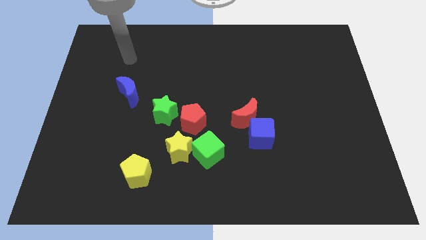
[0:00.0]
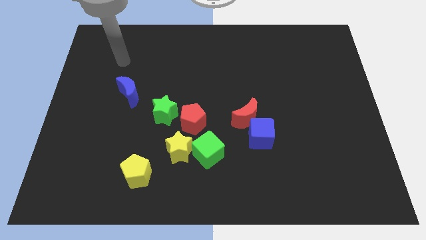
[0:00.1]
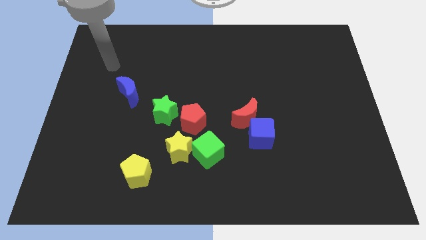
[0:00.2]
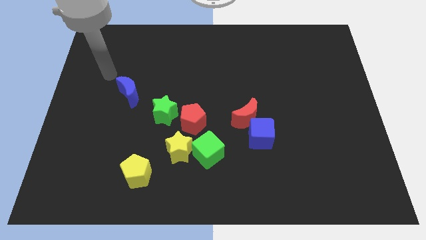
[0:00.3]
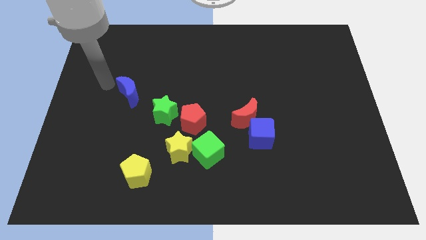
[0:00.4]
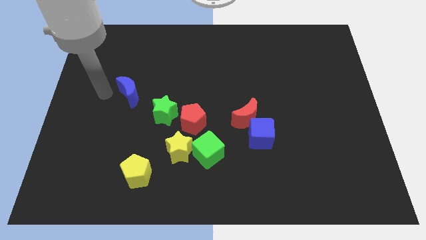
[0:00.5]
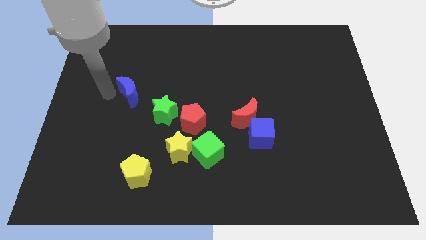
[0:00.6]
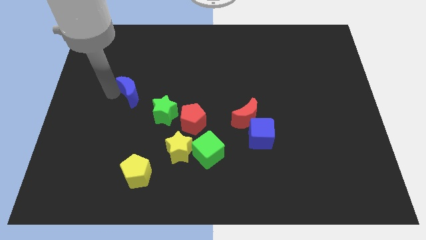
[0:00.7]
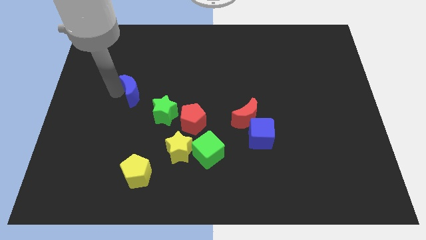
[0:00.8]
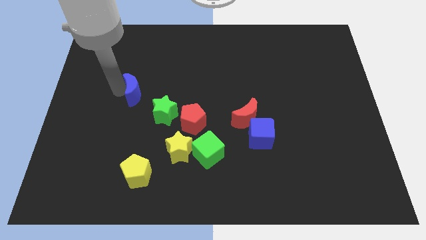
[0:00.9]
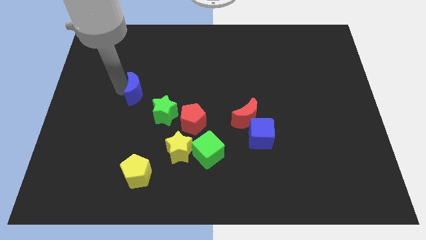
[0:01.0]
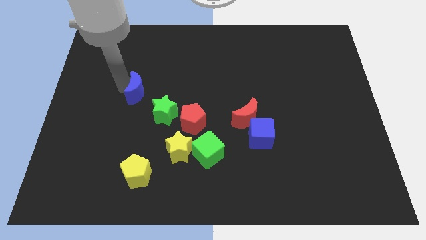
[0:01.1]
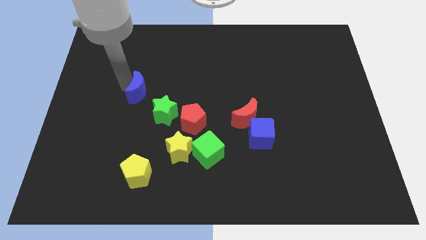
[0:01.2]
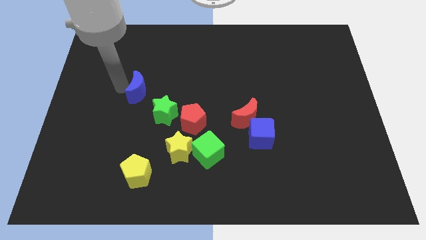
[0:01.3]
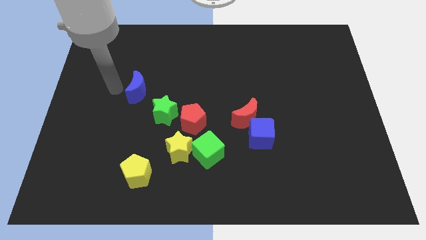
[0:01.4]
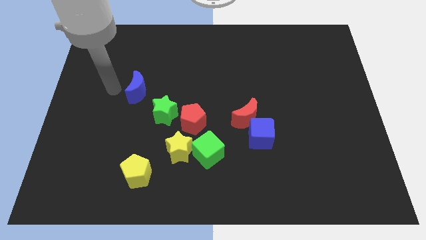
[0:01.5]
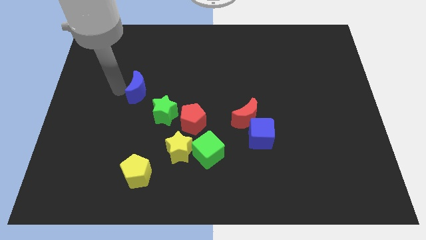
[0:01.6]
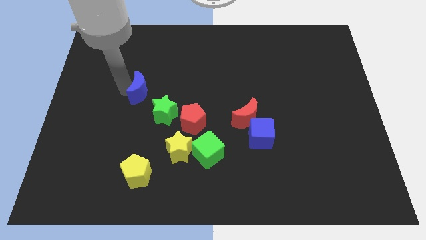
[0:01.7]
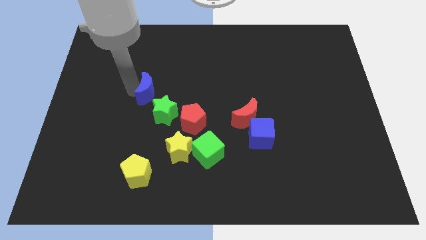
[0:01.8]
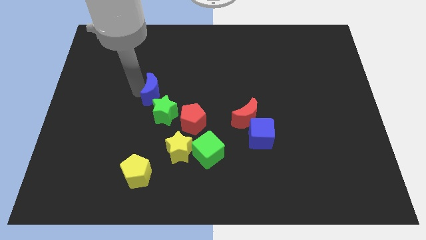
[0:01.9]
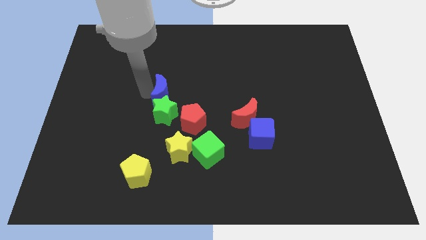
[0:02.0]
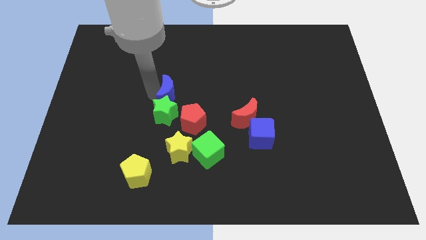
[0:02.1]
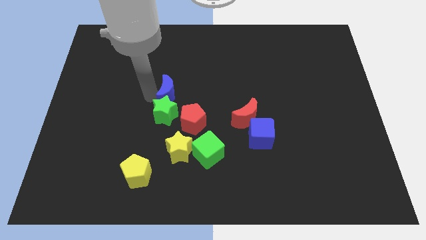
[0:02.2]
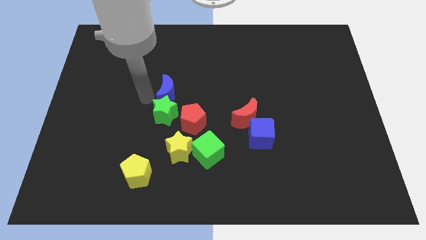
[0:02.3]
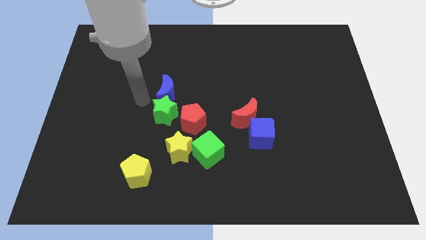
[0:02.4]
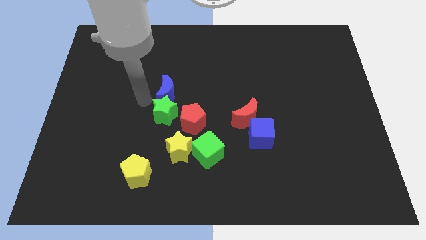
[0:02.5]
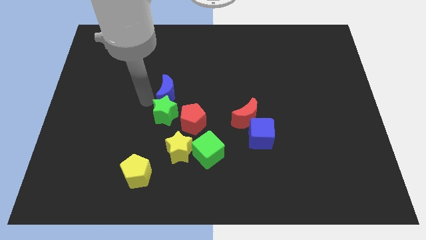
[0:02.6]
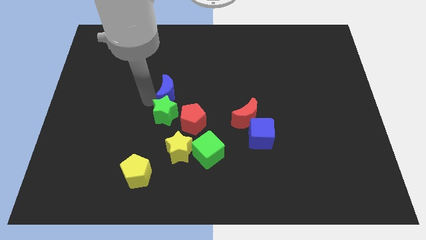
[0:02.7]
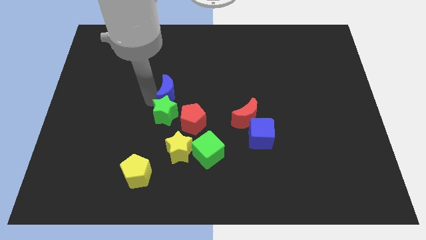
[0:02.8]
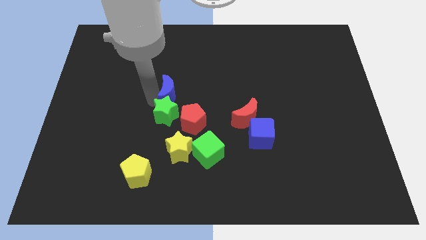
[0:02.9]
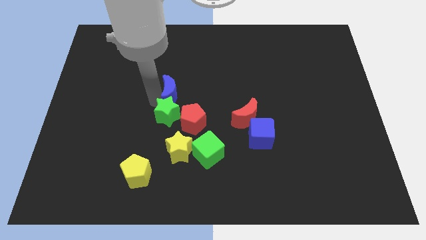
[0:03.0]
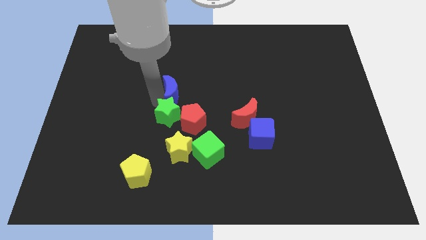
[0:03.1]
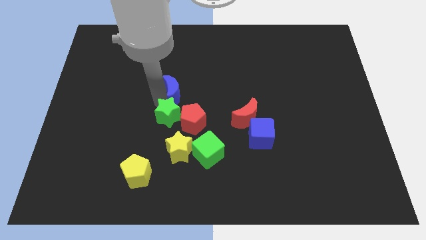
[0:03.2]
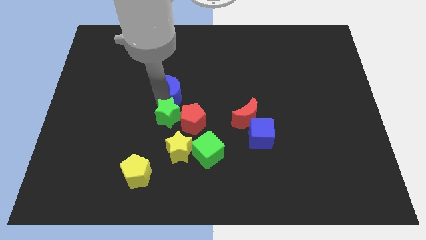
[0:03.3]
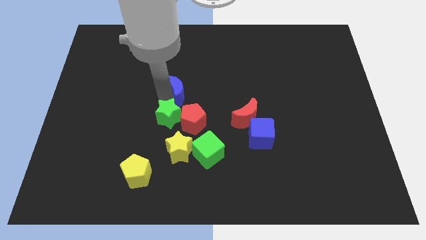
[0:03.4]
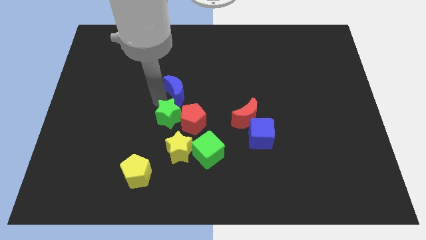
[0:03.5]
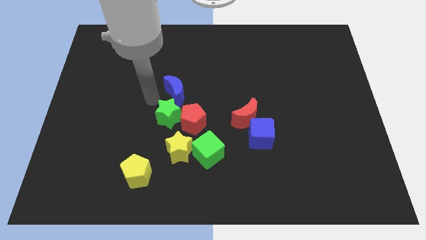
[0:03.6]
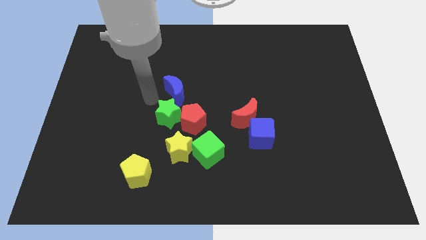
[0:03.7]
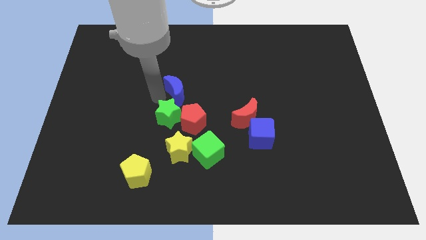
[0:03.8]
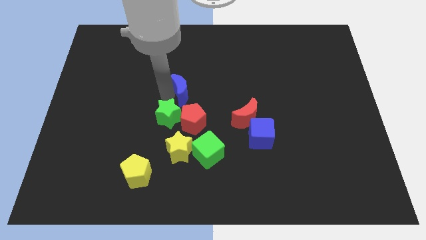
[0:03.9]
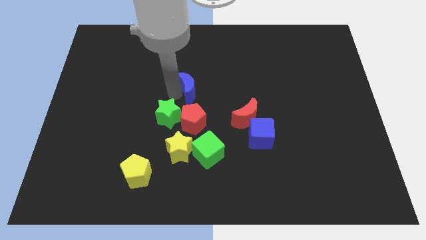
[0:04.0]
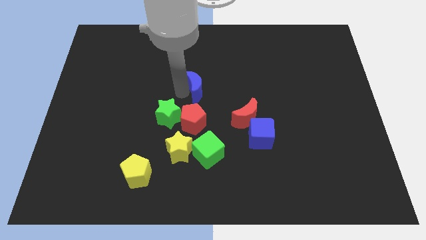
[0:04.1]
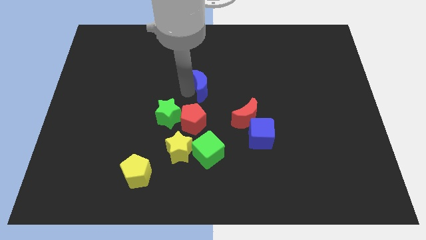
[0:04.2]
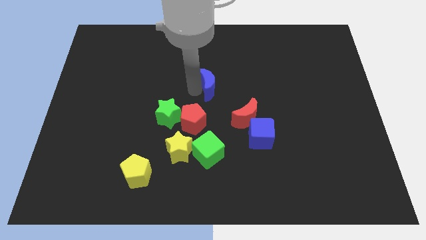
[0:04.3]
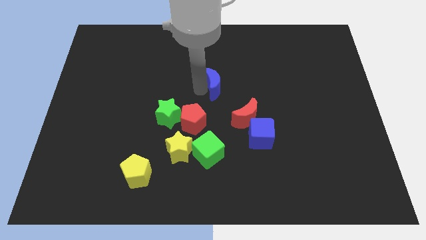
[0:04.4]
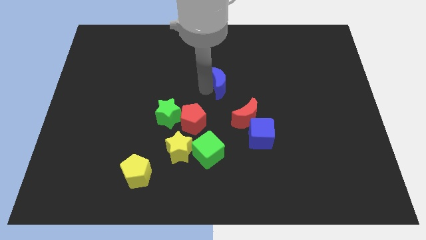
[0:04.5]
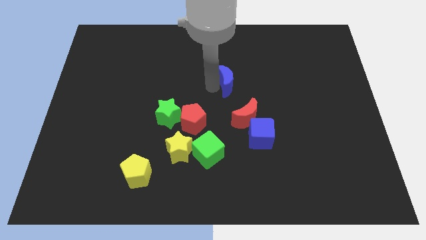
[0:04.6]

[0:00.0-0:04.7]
push the blue moon to the top of the red moon

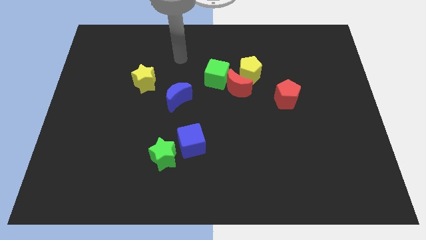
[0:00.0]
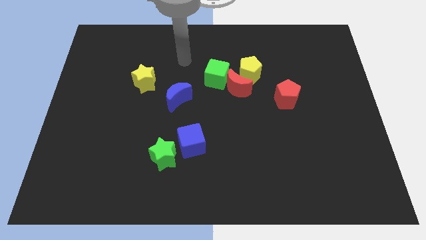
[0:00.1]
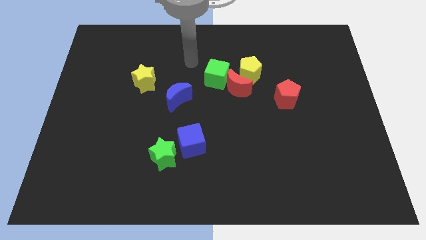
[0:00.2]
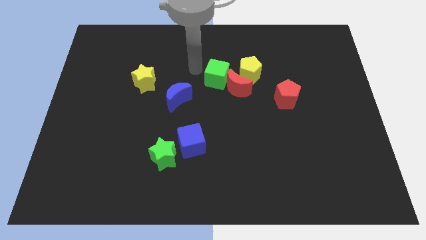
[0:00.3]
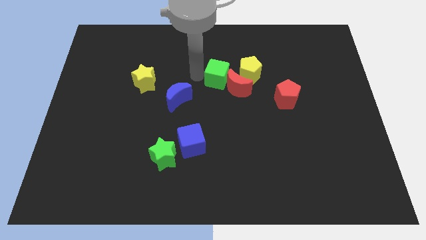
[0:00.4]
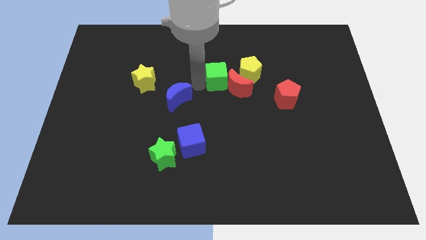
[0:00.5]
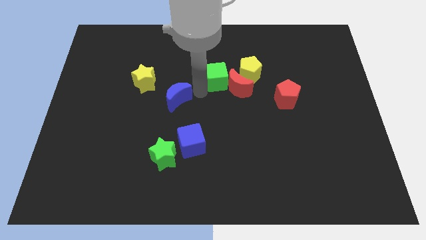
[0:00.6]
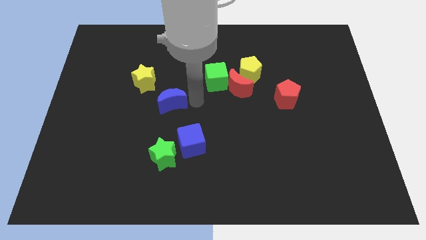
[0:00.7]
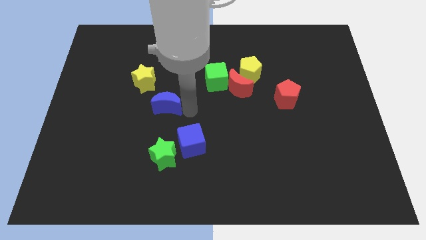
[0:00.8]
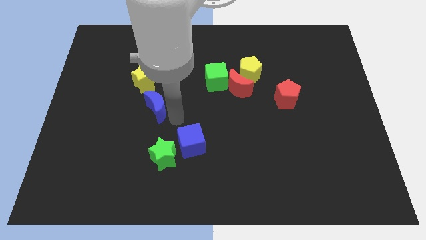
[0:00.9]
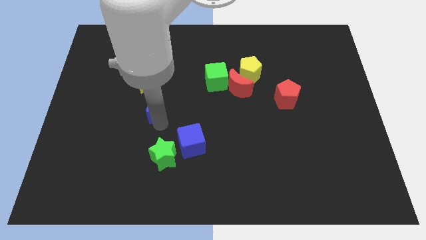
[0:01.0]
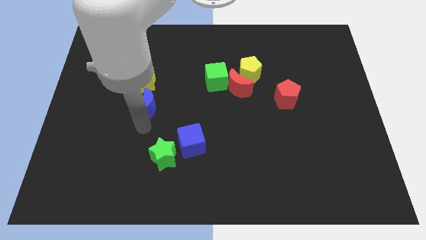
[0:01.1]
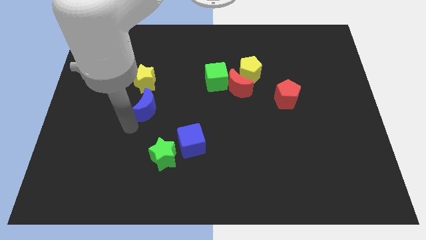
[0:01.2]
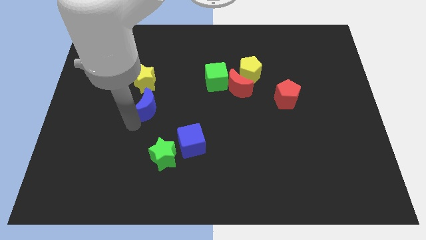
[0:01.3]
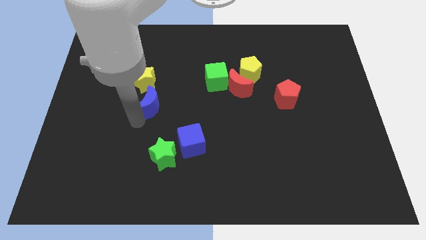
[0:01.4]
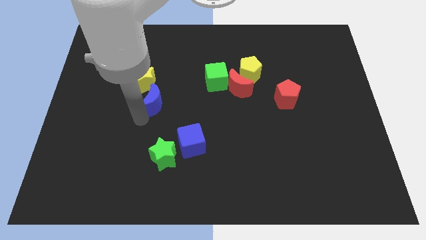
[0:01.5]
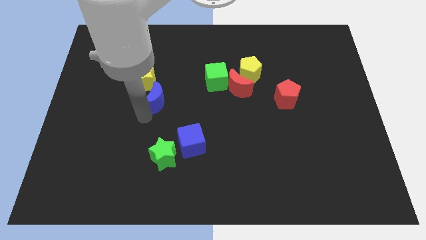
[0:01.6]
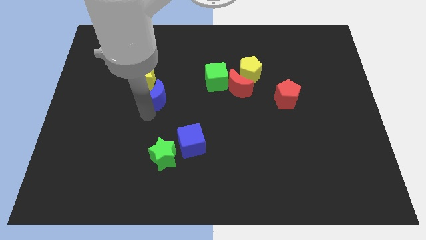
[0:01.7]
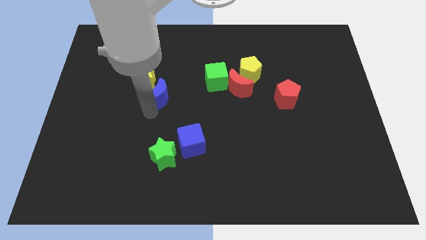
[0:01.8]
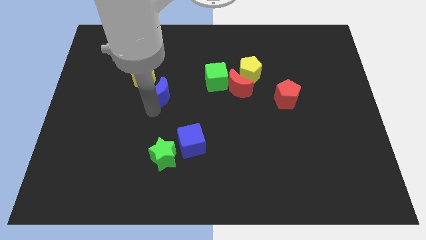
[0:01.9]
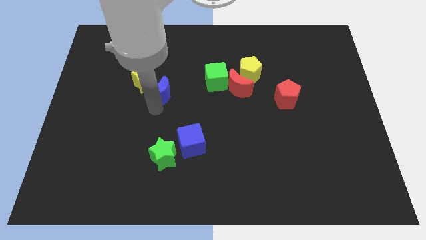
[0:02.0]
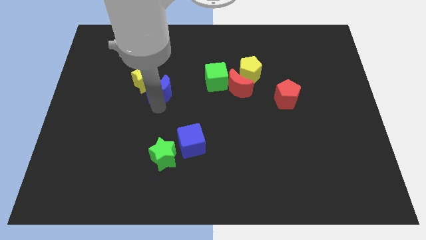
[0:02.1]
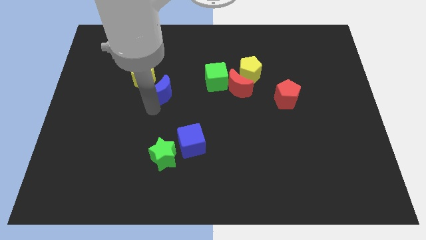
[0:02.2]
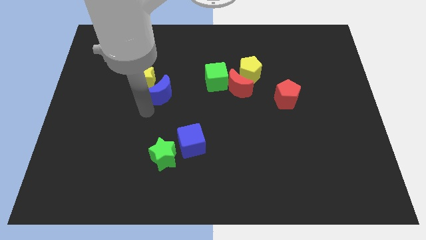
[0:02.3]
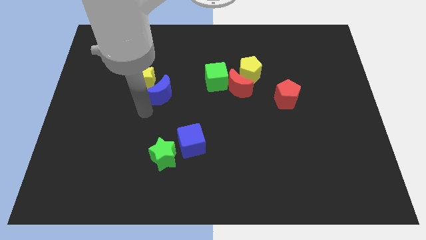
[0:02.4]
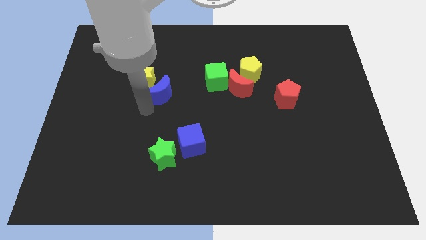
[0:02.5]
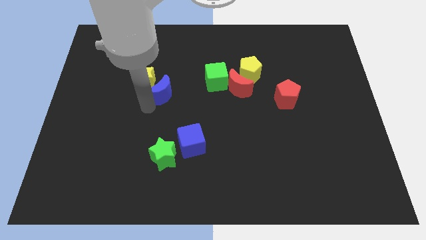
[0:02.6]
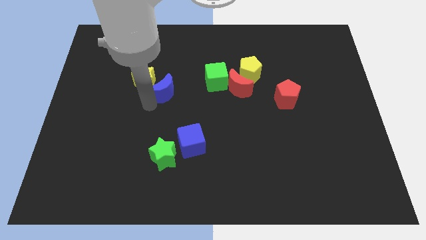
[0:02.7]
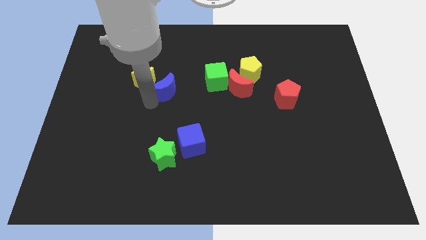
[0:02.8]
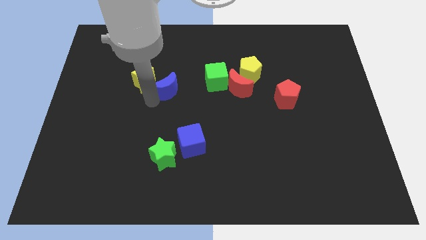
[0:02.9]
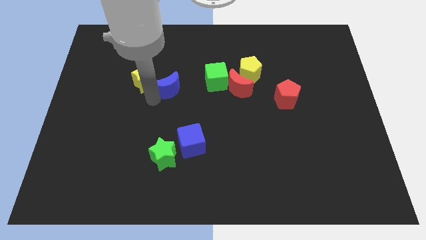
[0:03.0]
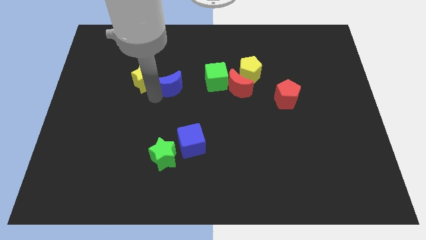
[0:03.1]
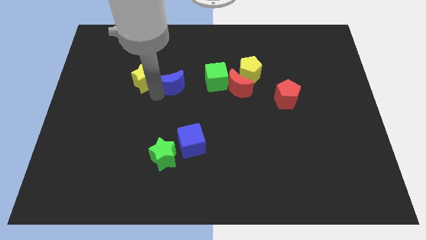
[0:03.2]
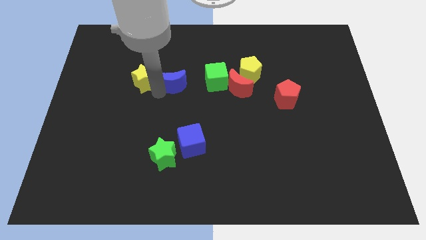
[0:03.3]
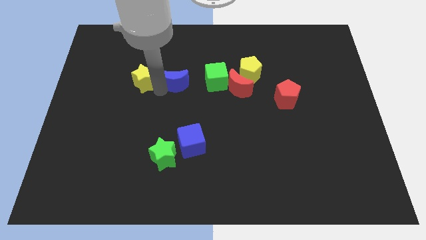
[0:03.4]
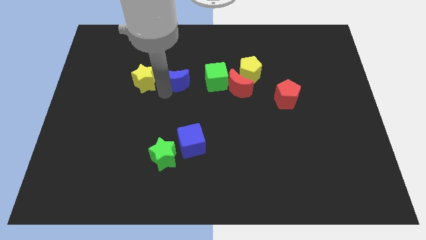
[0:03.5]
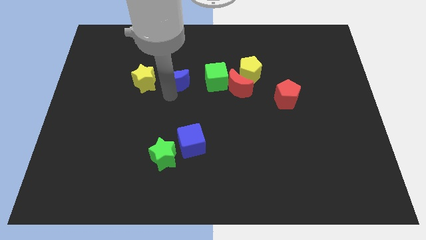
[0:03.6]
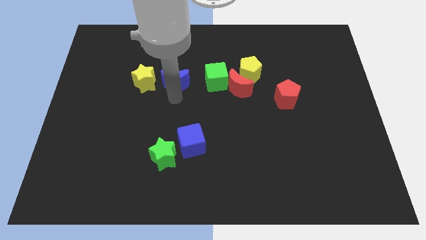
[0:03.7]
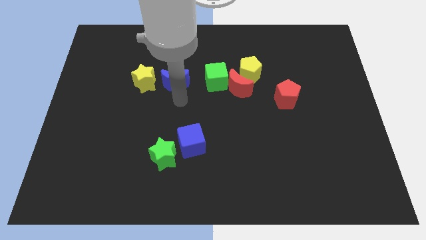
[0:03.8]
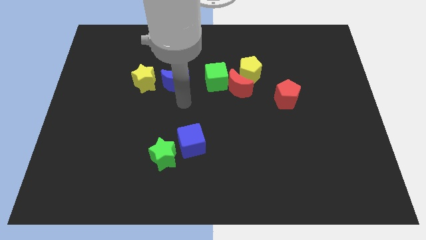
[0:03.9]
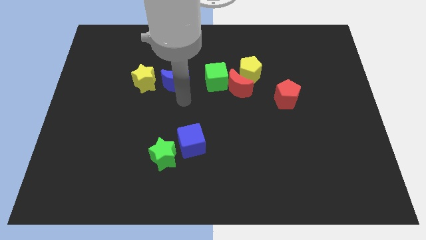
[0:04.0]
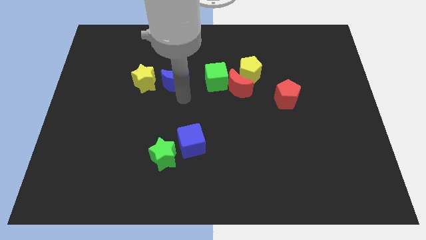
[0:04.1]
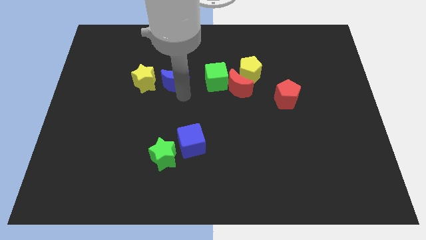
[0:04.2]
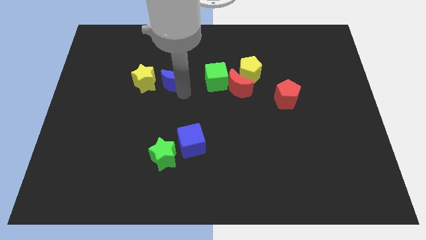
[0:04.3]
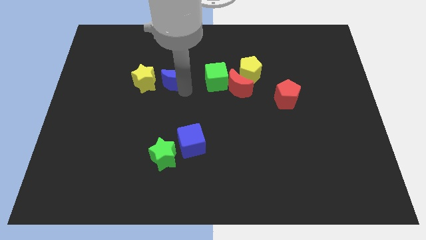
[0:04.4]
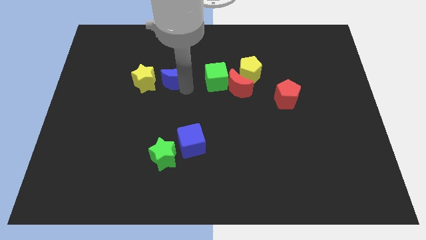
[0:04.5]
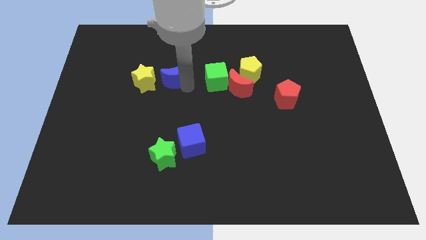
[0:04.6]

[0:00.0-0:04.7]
put the blue moon to the top right of the yellow star
